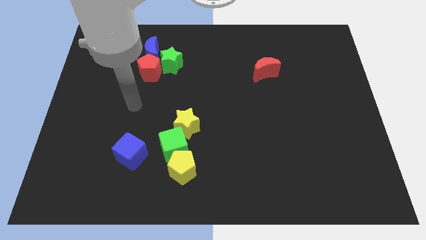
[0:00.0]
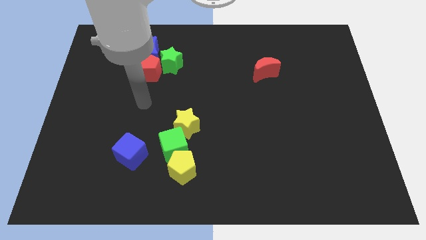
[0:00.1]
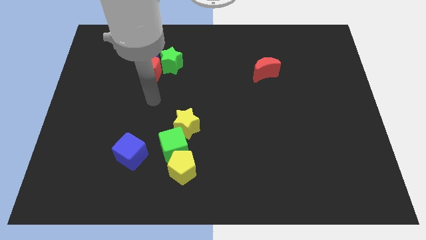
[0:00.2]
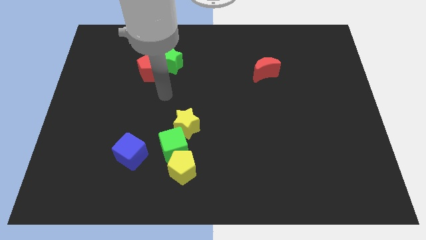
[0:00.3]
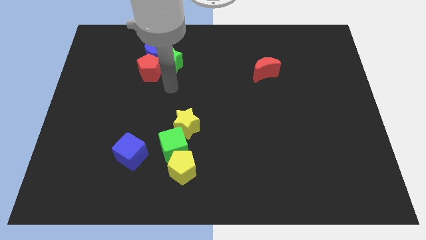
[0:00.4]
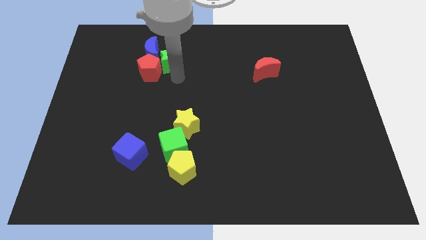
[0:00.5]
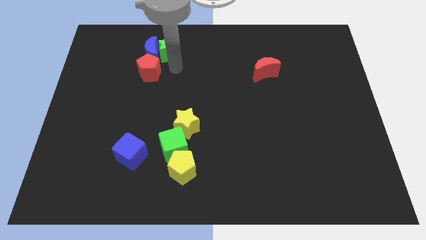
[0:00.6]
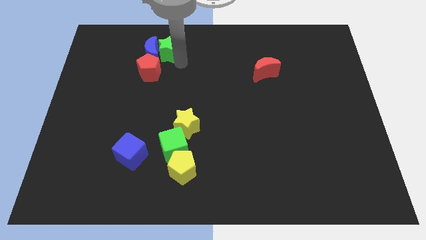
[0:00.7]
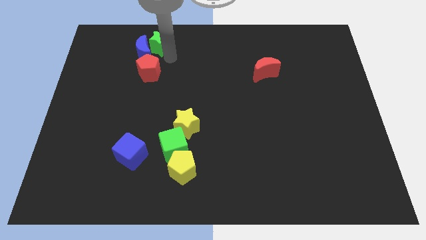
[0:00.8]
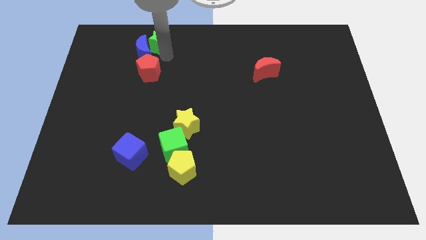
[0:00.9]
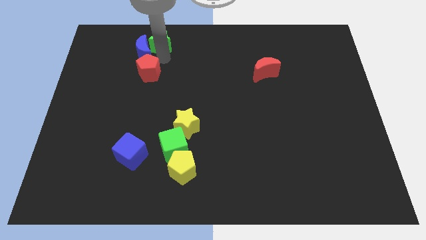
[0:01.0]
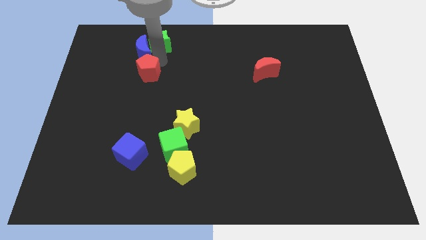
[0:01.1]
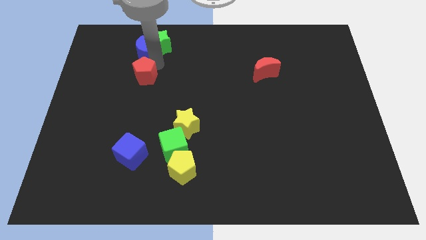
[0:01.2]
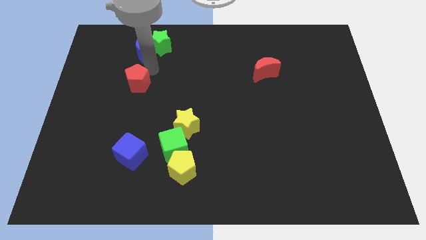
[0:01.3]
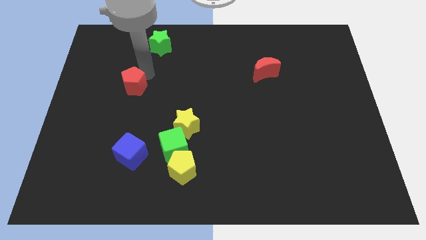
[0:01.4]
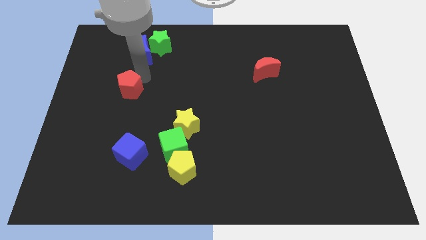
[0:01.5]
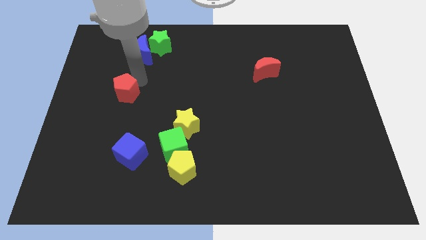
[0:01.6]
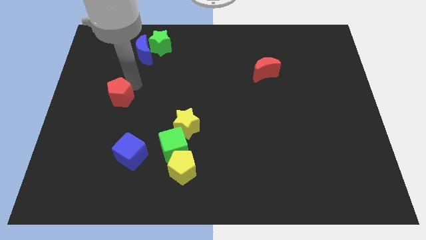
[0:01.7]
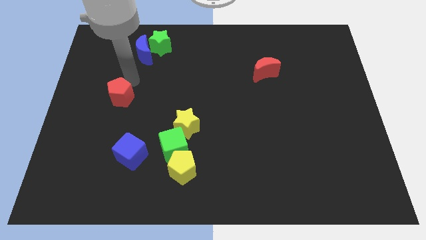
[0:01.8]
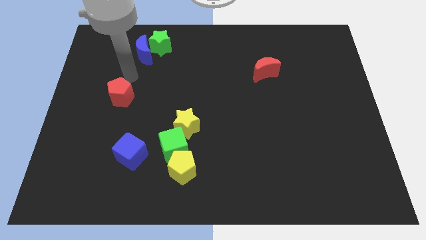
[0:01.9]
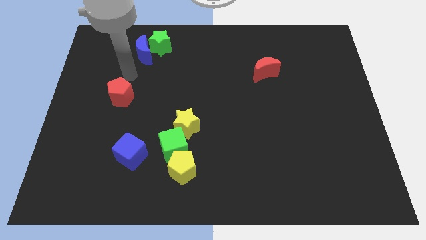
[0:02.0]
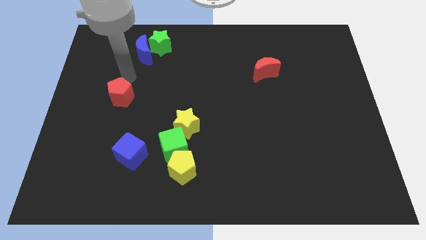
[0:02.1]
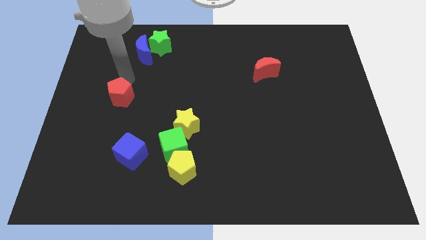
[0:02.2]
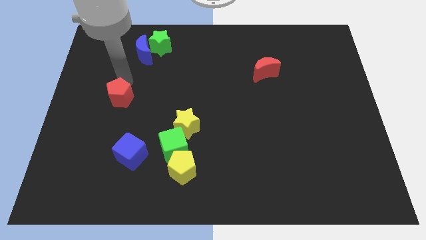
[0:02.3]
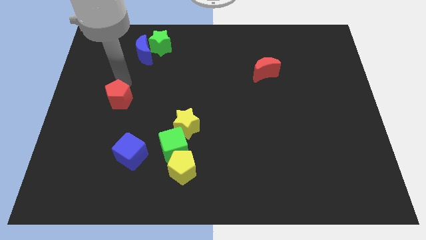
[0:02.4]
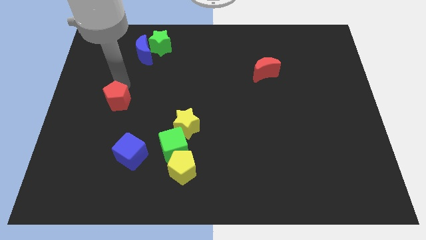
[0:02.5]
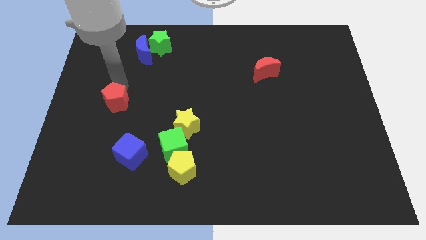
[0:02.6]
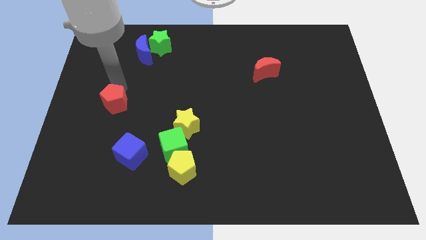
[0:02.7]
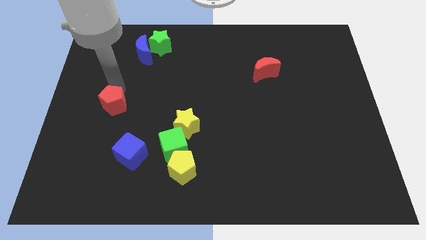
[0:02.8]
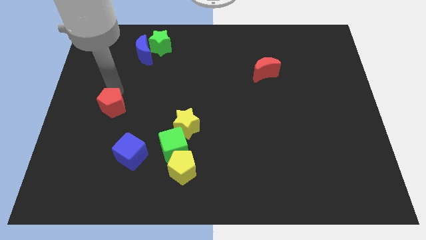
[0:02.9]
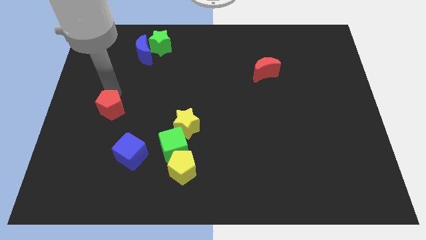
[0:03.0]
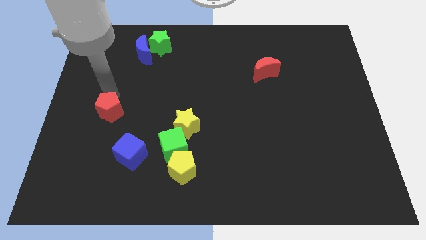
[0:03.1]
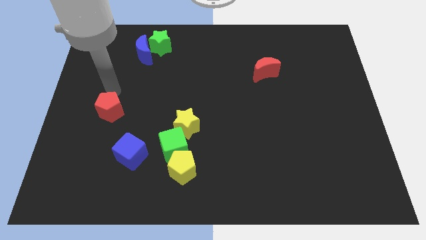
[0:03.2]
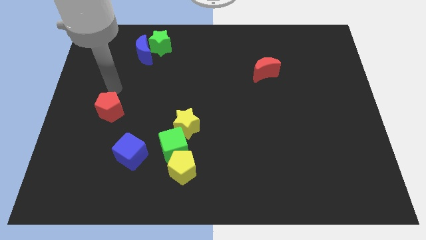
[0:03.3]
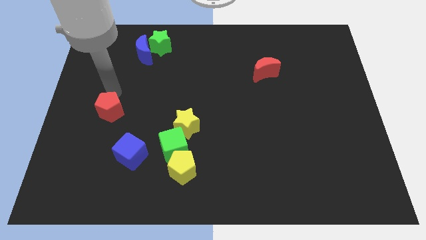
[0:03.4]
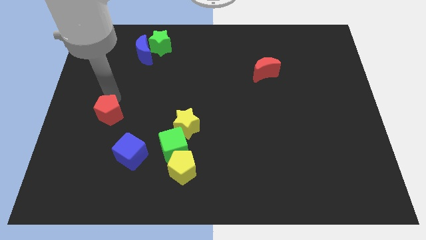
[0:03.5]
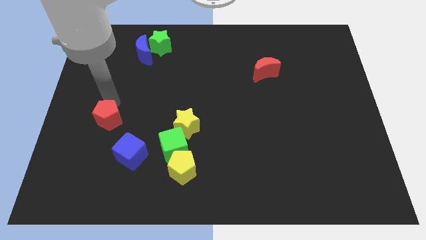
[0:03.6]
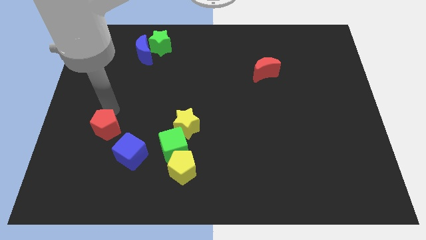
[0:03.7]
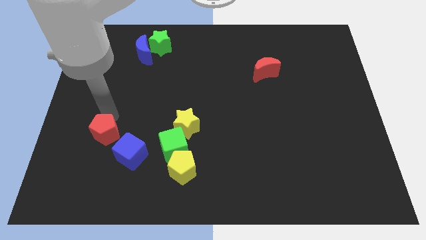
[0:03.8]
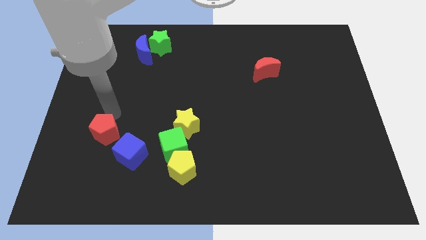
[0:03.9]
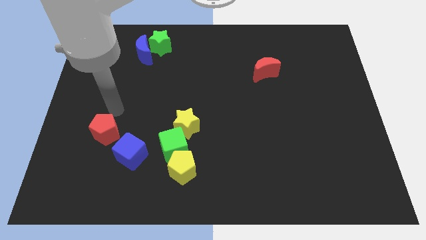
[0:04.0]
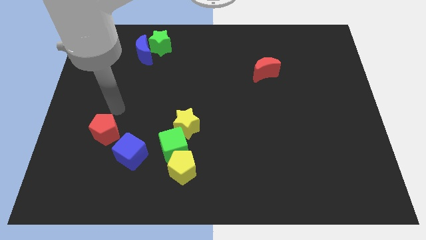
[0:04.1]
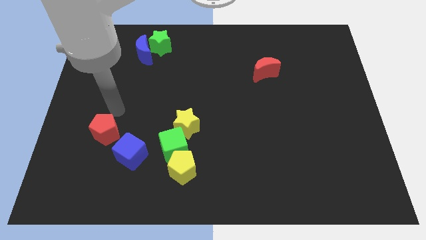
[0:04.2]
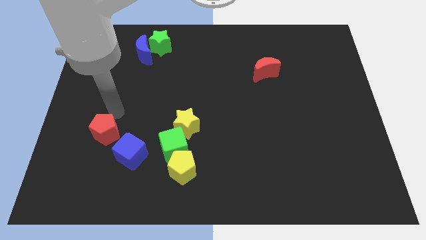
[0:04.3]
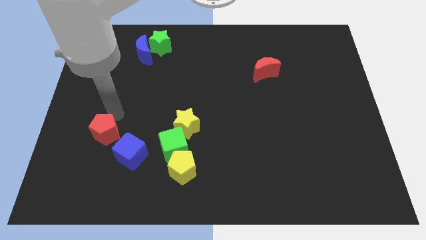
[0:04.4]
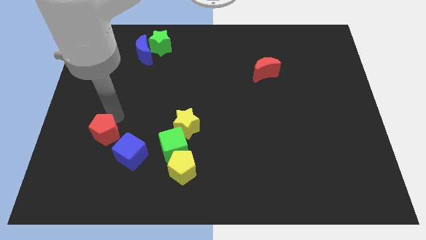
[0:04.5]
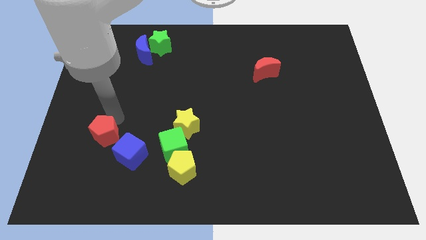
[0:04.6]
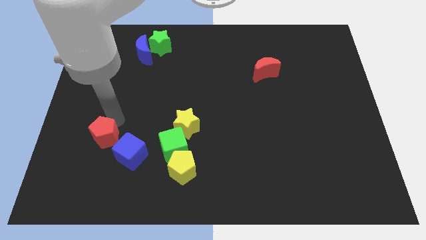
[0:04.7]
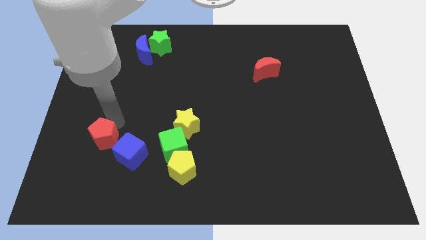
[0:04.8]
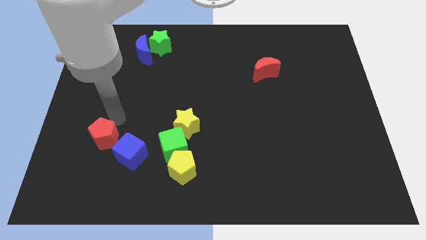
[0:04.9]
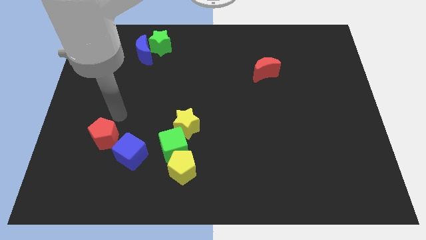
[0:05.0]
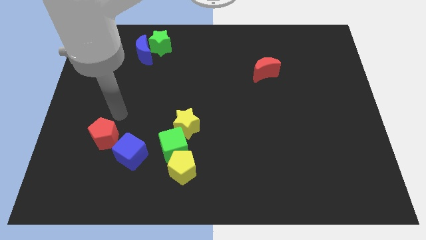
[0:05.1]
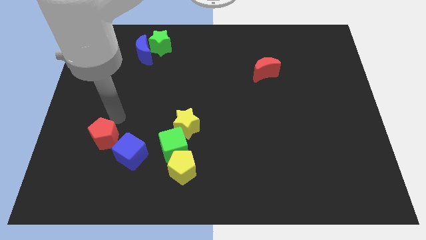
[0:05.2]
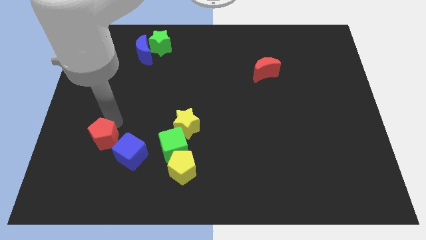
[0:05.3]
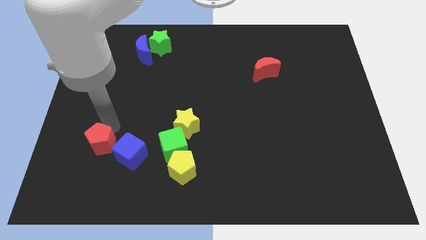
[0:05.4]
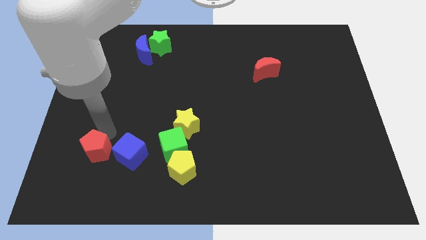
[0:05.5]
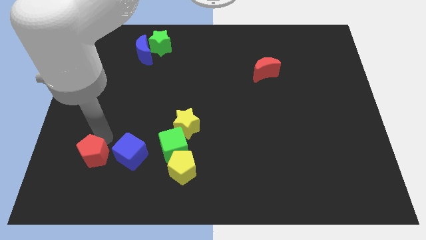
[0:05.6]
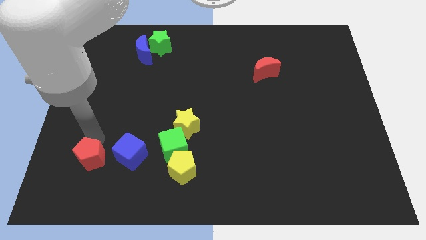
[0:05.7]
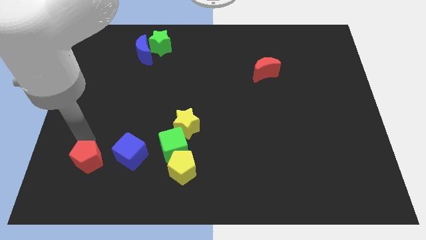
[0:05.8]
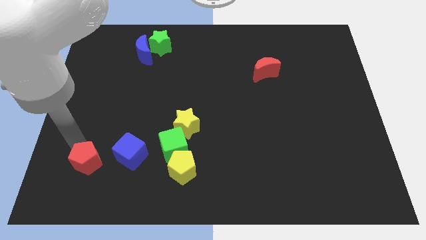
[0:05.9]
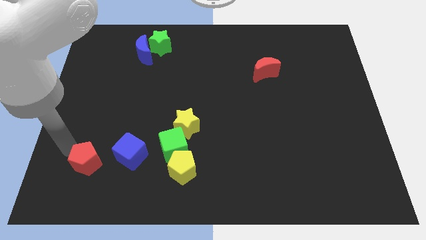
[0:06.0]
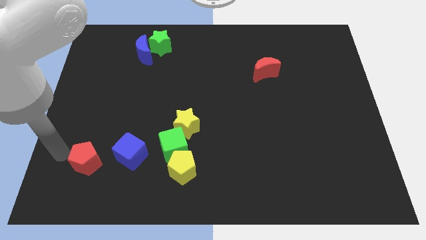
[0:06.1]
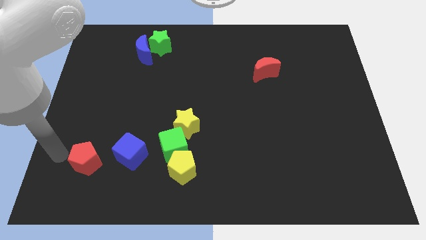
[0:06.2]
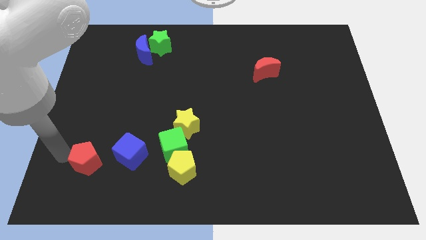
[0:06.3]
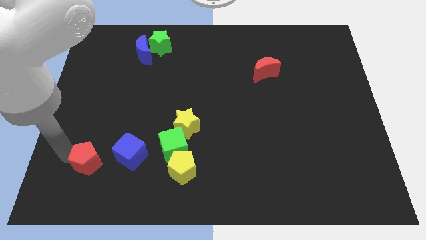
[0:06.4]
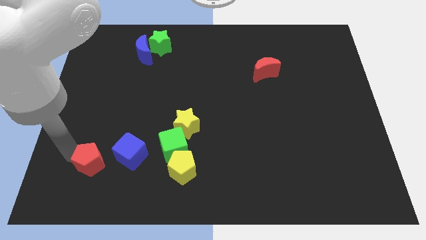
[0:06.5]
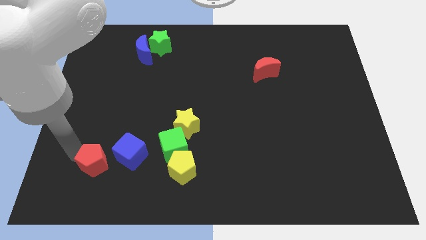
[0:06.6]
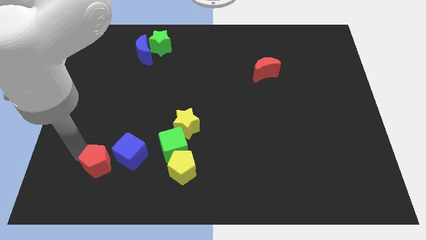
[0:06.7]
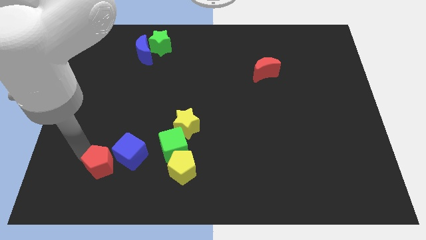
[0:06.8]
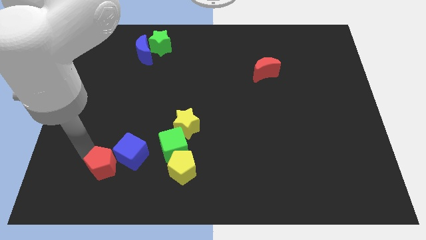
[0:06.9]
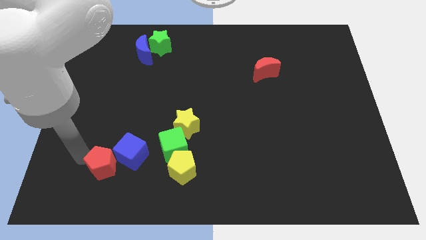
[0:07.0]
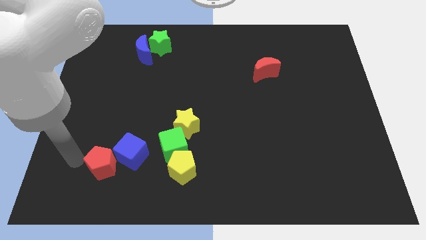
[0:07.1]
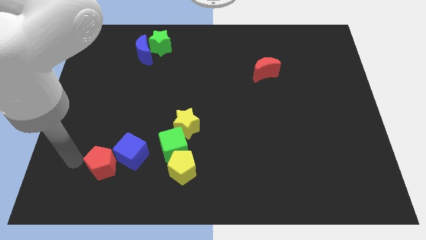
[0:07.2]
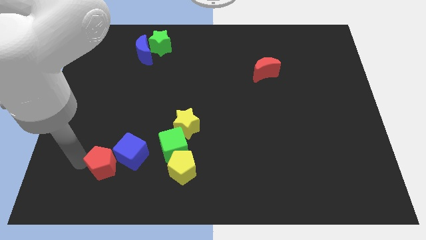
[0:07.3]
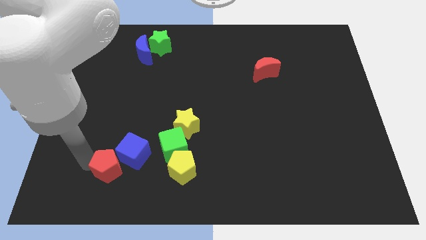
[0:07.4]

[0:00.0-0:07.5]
slide the red pentagon to the left of the yellow pentagon
